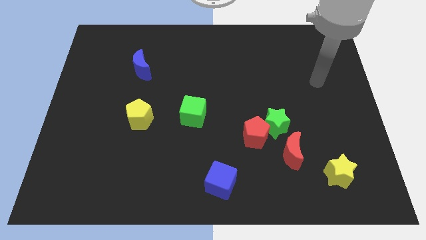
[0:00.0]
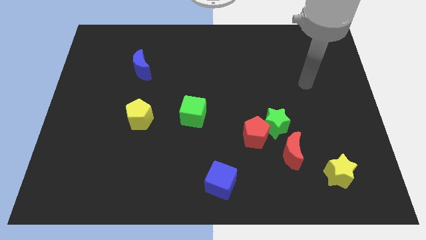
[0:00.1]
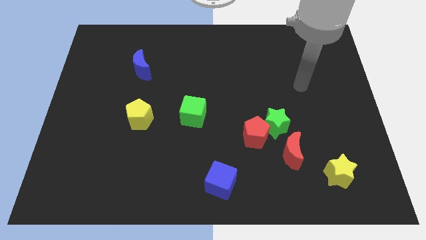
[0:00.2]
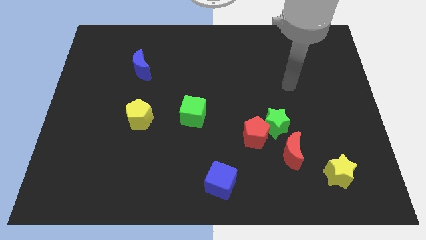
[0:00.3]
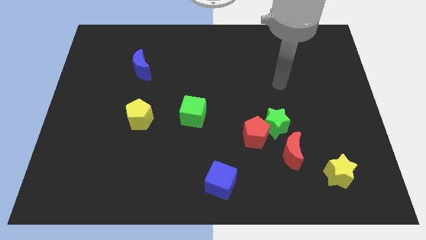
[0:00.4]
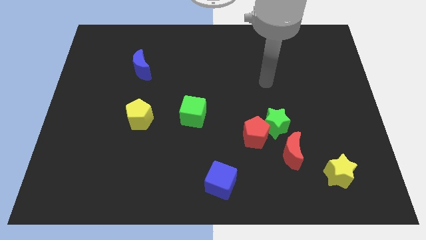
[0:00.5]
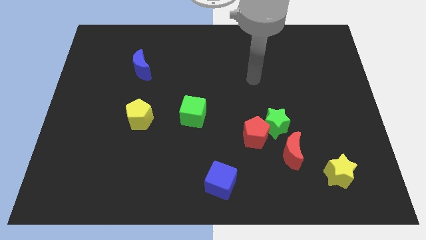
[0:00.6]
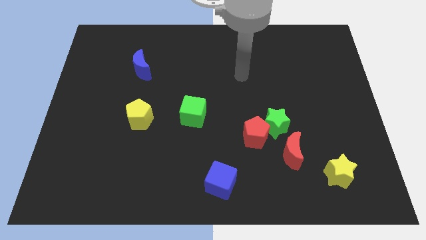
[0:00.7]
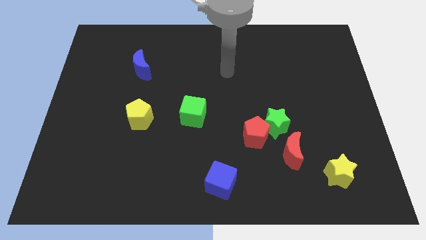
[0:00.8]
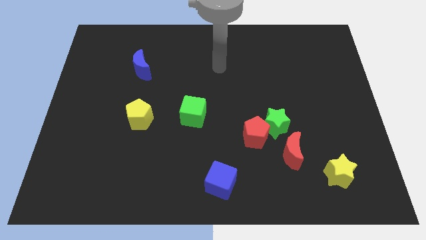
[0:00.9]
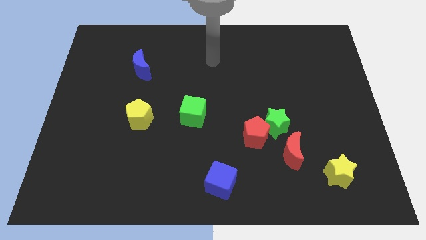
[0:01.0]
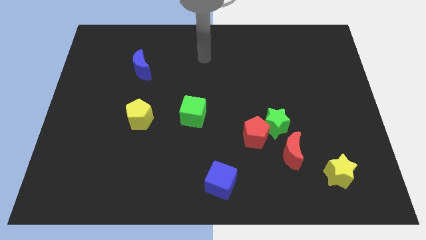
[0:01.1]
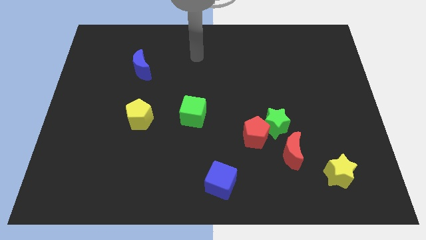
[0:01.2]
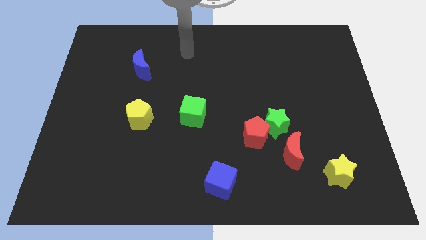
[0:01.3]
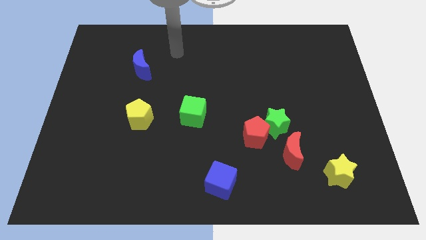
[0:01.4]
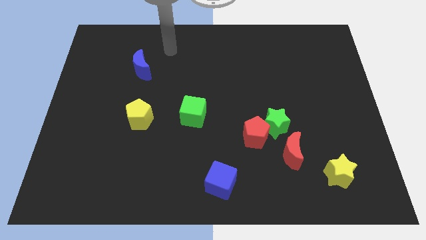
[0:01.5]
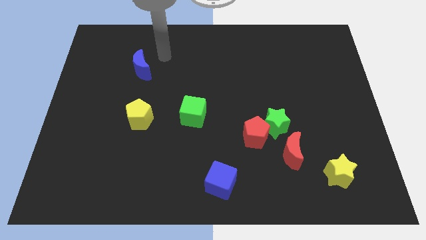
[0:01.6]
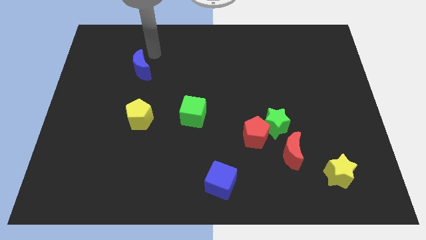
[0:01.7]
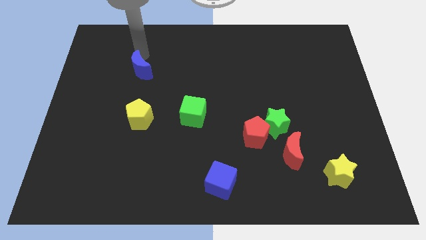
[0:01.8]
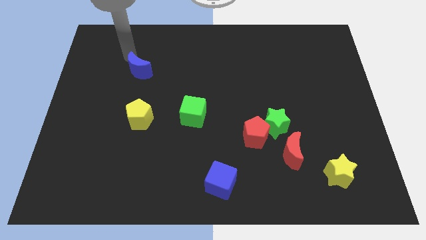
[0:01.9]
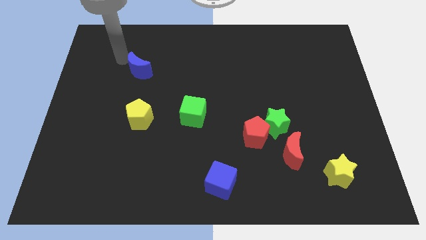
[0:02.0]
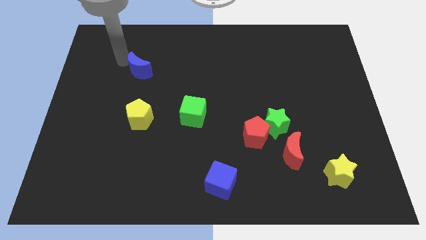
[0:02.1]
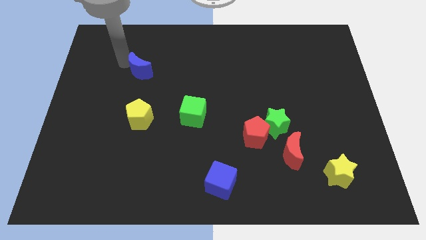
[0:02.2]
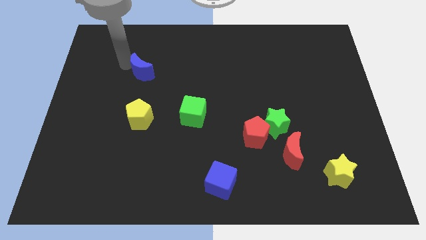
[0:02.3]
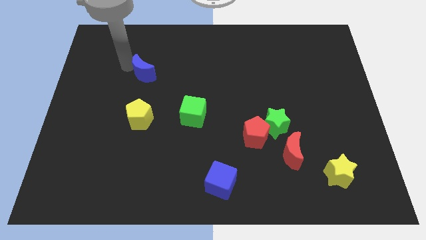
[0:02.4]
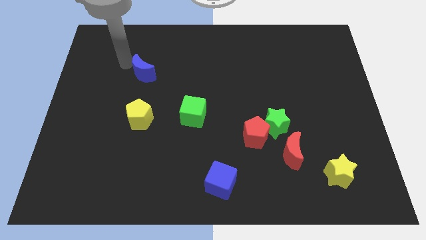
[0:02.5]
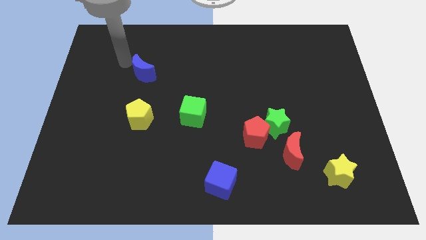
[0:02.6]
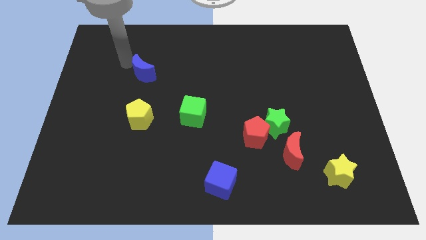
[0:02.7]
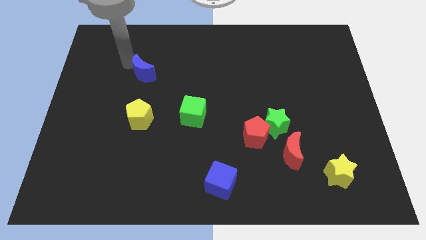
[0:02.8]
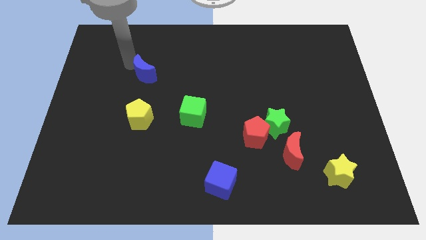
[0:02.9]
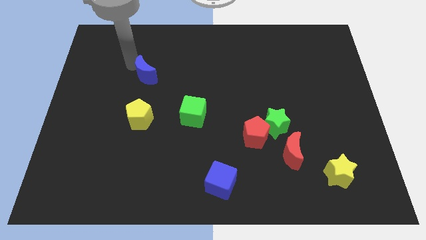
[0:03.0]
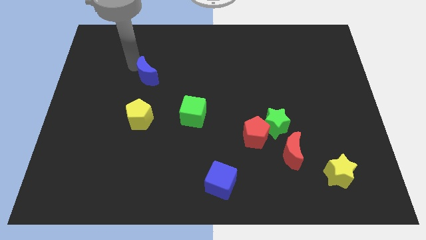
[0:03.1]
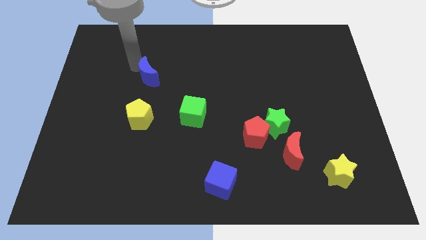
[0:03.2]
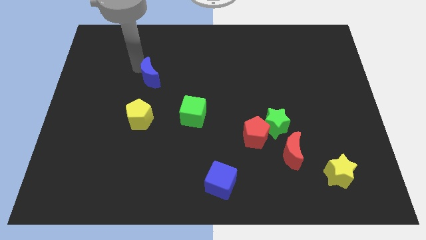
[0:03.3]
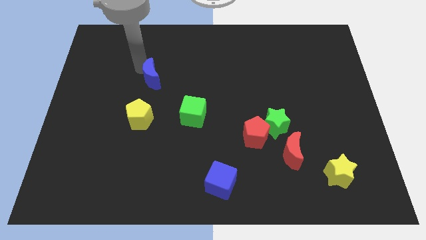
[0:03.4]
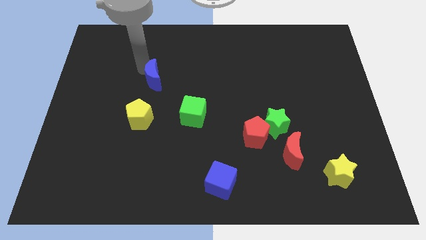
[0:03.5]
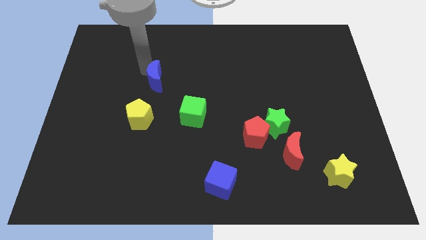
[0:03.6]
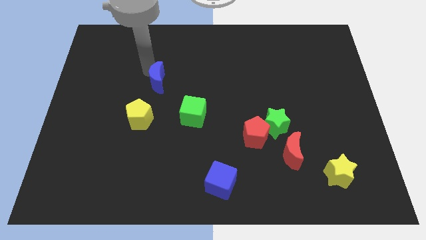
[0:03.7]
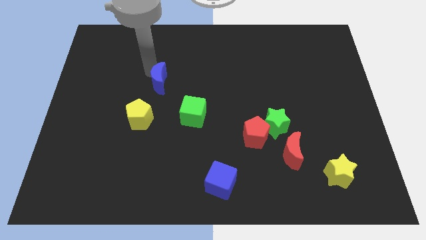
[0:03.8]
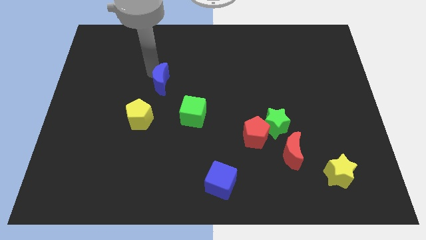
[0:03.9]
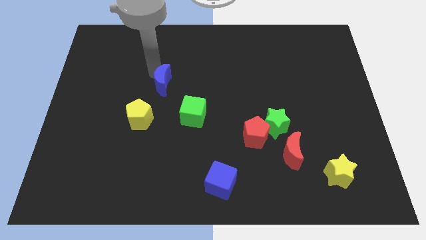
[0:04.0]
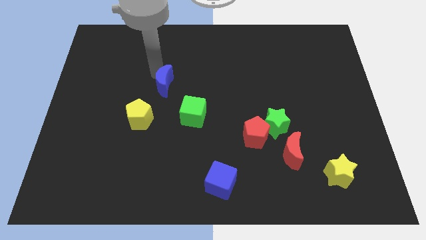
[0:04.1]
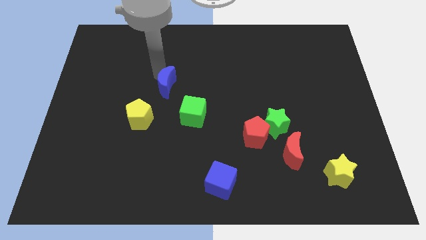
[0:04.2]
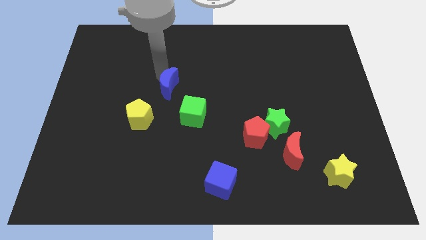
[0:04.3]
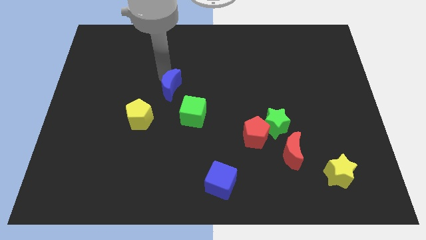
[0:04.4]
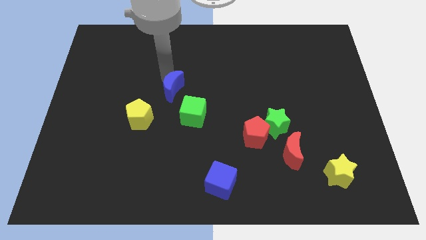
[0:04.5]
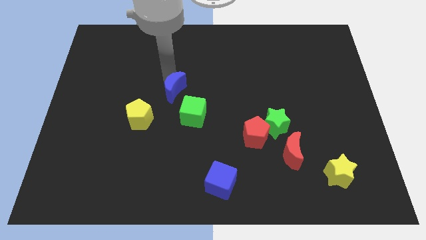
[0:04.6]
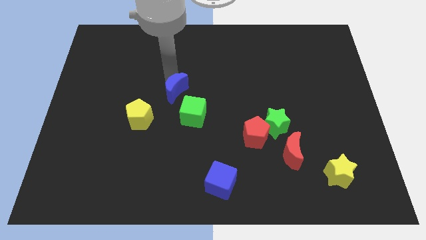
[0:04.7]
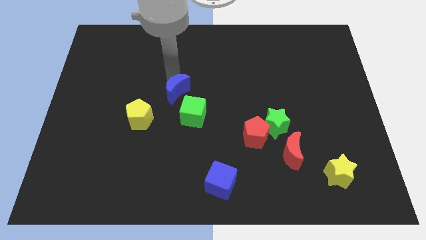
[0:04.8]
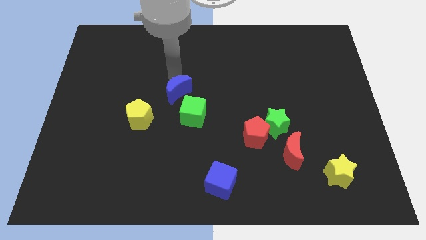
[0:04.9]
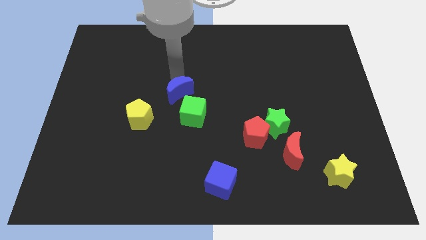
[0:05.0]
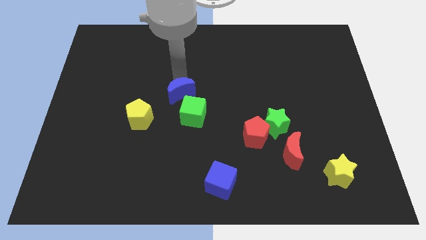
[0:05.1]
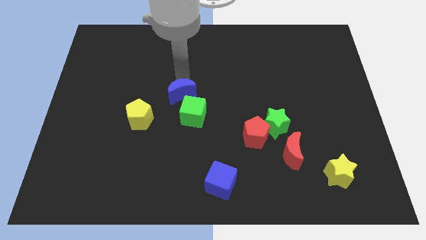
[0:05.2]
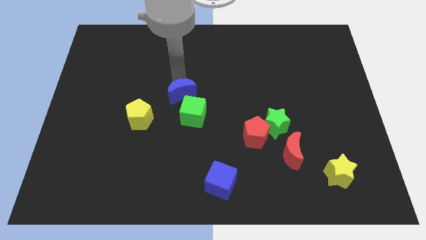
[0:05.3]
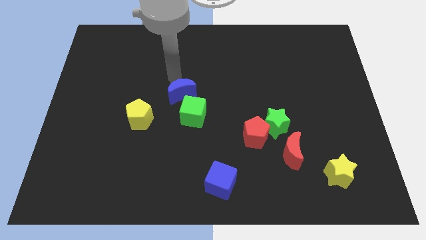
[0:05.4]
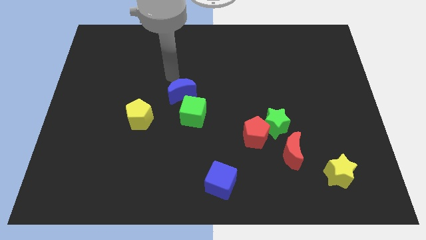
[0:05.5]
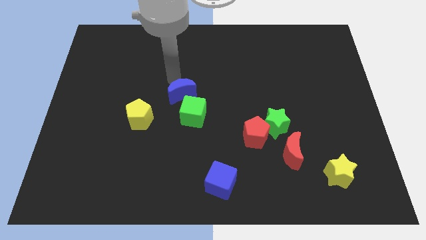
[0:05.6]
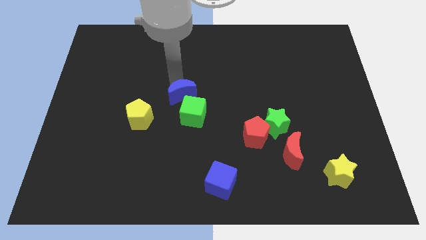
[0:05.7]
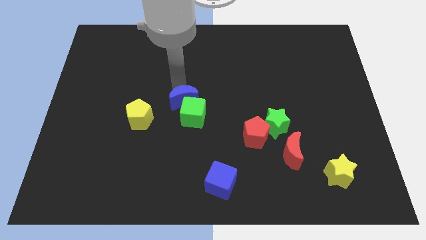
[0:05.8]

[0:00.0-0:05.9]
move the blue moon towards the green cube

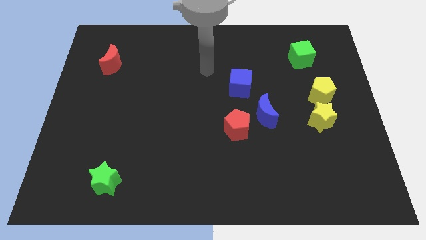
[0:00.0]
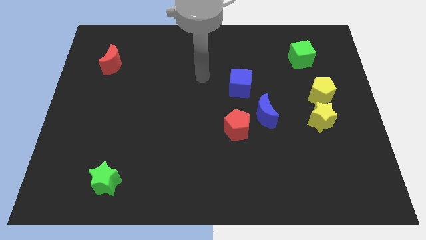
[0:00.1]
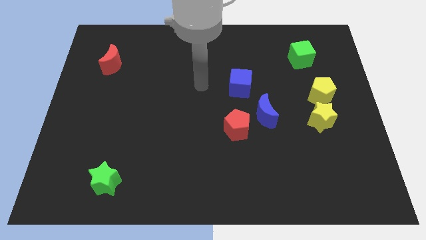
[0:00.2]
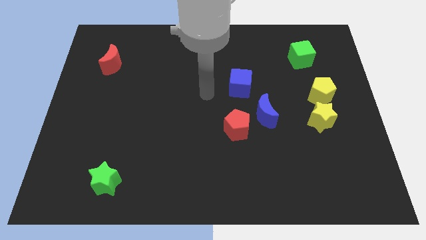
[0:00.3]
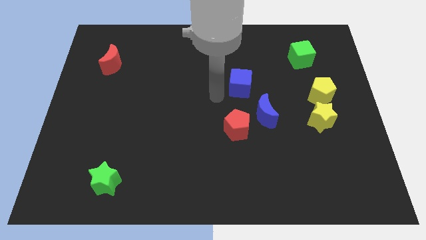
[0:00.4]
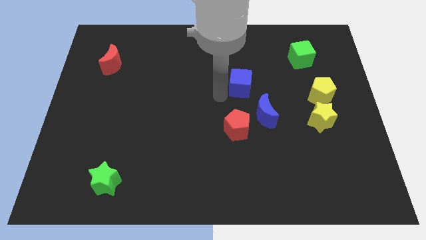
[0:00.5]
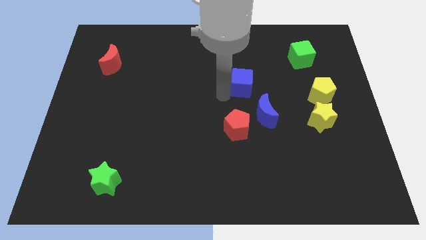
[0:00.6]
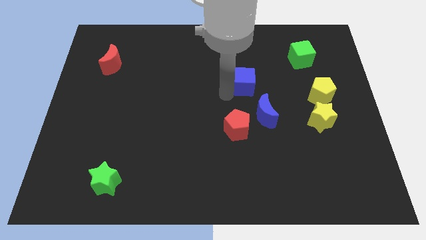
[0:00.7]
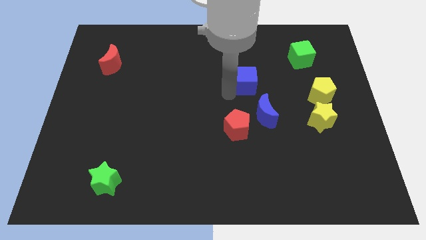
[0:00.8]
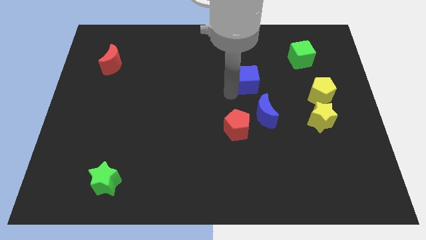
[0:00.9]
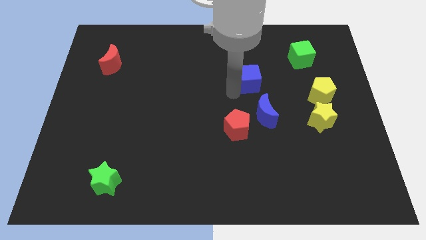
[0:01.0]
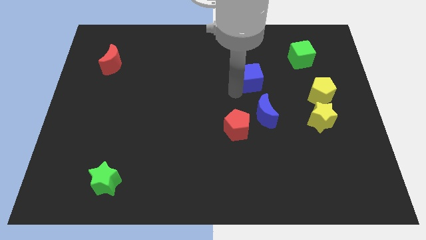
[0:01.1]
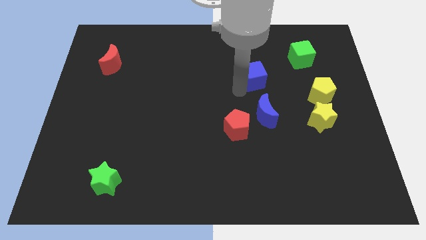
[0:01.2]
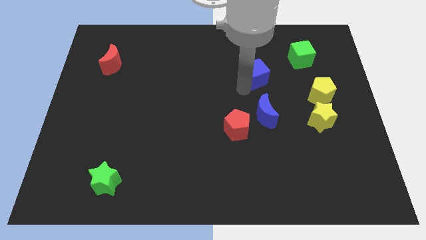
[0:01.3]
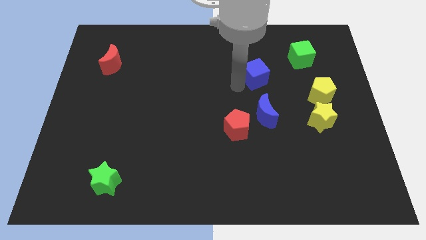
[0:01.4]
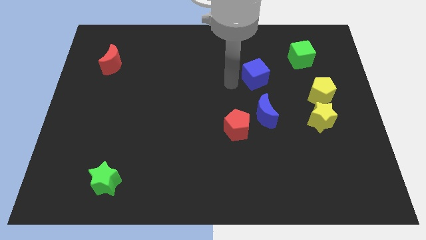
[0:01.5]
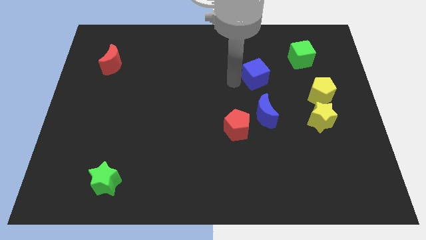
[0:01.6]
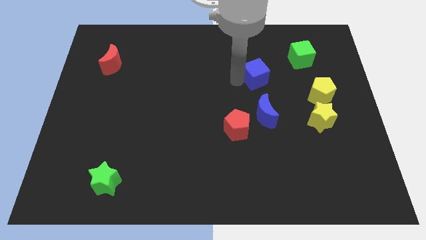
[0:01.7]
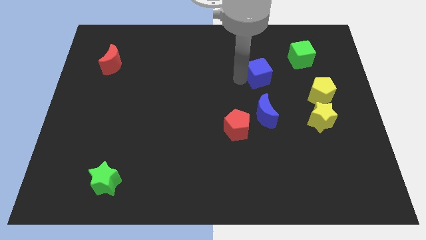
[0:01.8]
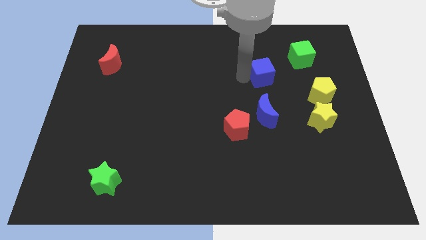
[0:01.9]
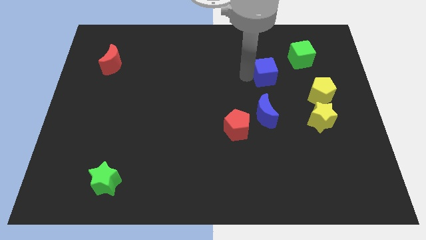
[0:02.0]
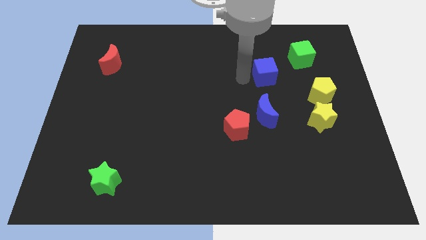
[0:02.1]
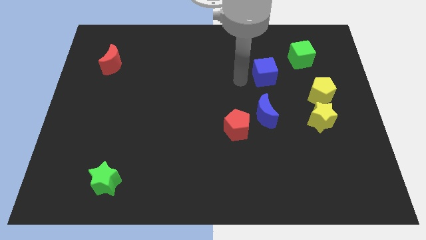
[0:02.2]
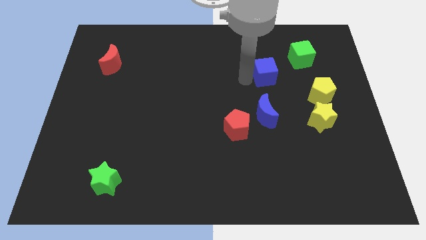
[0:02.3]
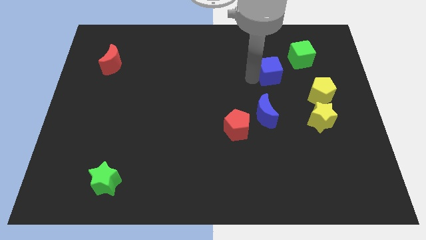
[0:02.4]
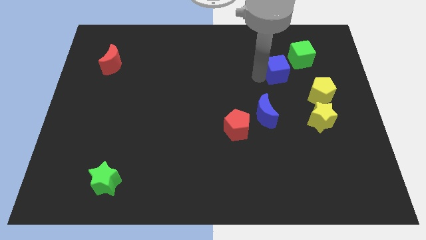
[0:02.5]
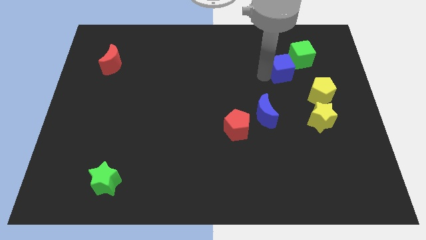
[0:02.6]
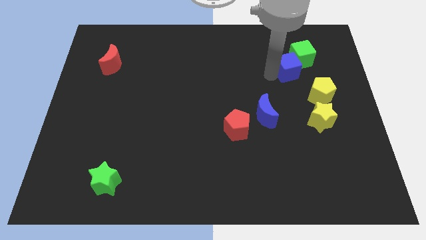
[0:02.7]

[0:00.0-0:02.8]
slide the blue cube to the green cube
